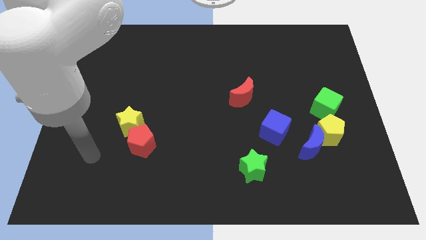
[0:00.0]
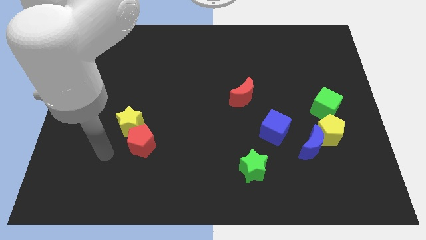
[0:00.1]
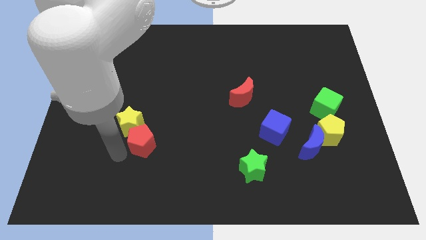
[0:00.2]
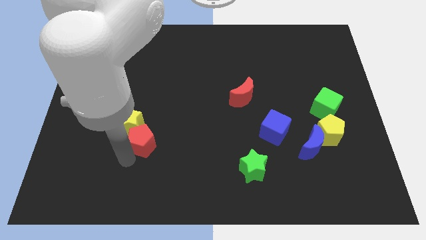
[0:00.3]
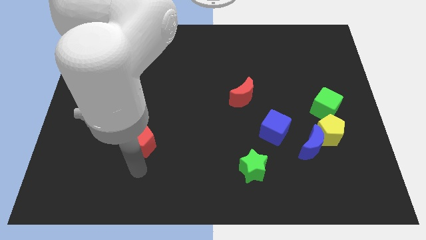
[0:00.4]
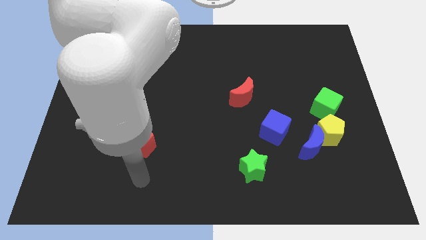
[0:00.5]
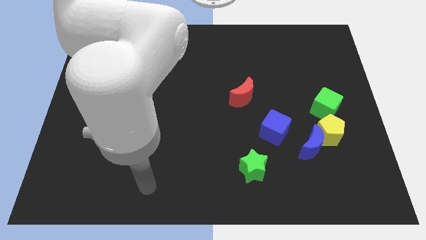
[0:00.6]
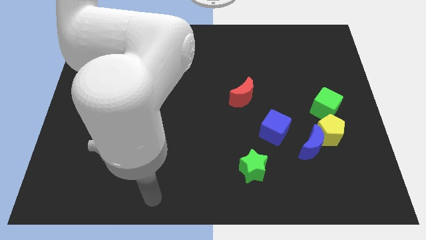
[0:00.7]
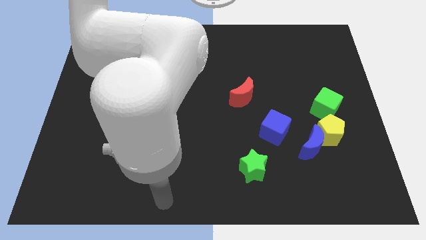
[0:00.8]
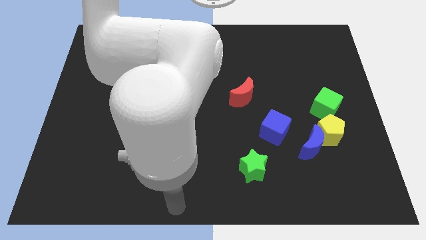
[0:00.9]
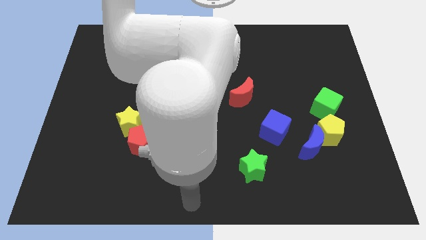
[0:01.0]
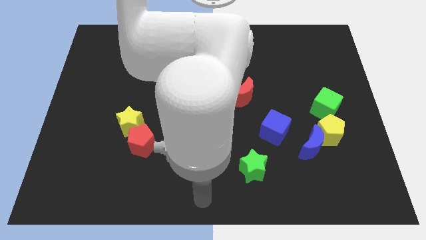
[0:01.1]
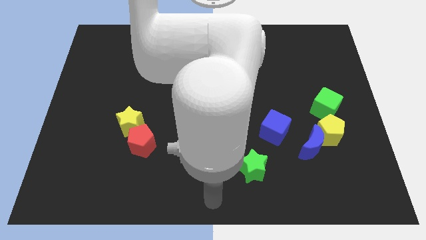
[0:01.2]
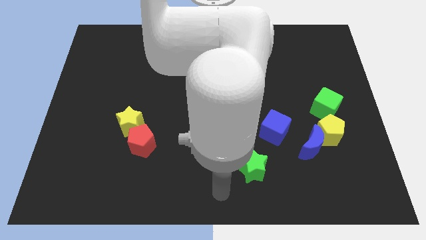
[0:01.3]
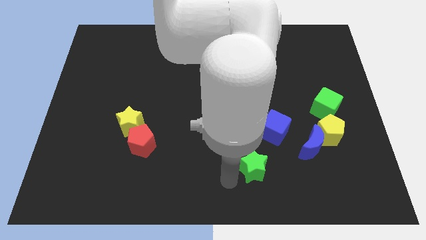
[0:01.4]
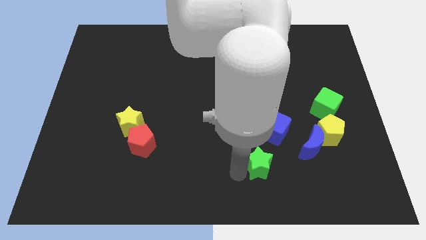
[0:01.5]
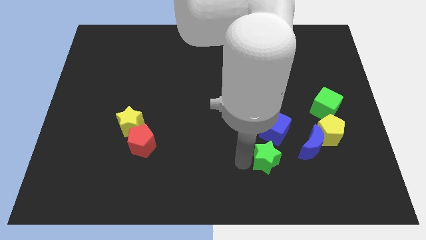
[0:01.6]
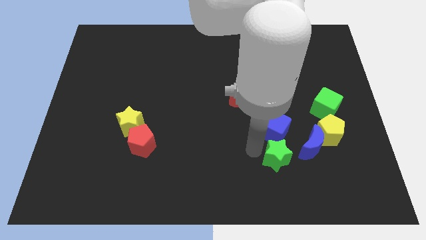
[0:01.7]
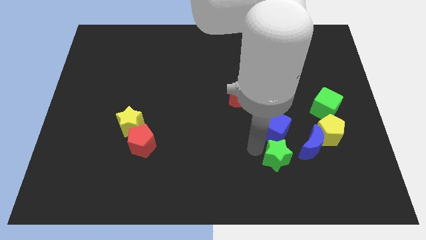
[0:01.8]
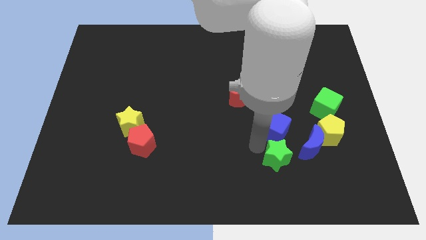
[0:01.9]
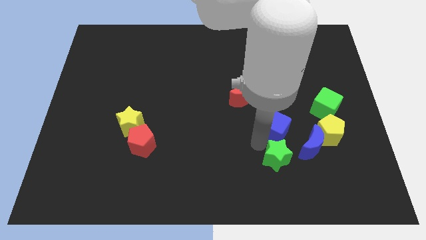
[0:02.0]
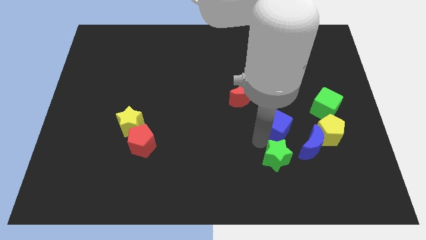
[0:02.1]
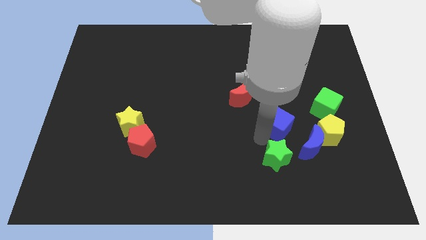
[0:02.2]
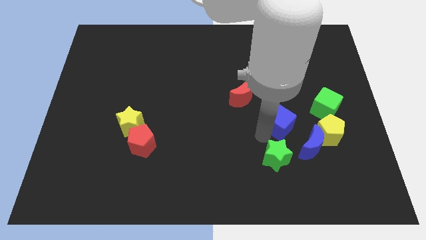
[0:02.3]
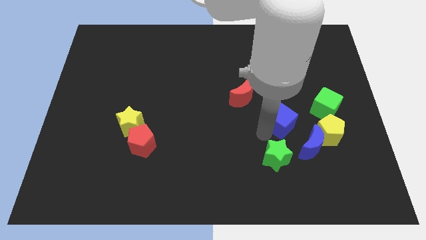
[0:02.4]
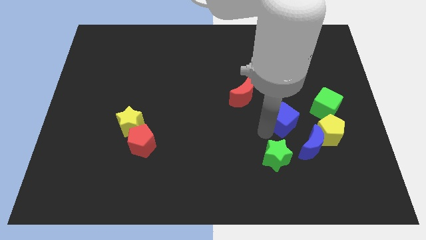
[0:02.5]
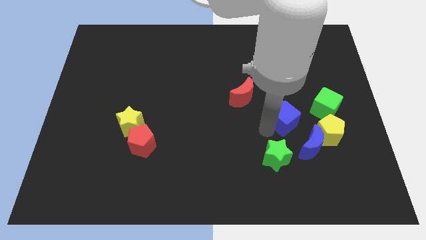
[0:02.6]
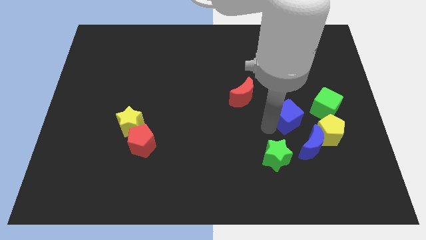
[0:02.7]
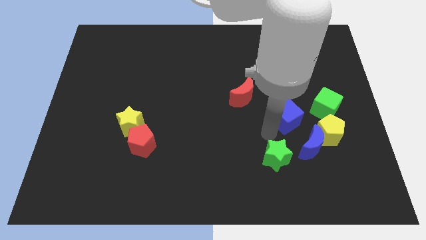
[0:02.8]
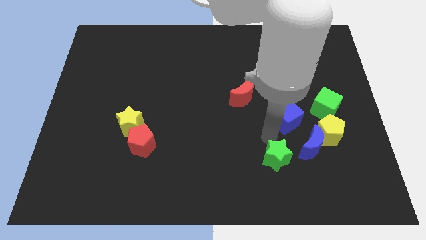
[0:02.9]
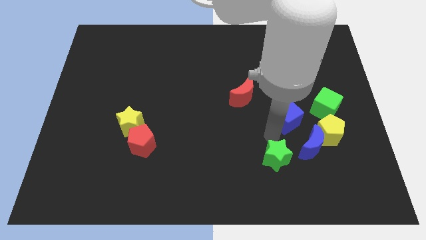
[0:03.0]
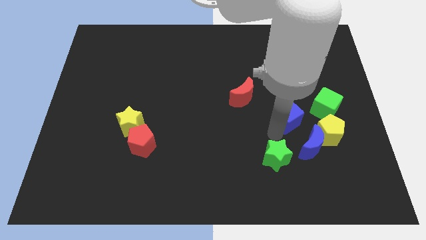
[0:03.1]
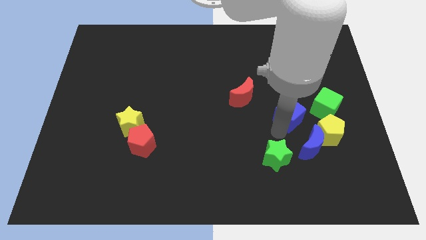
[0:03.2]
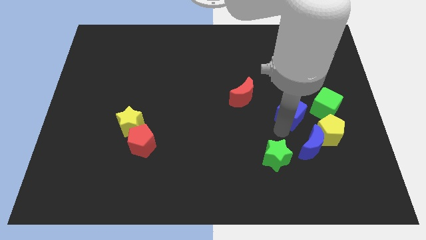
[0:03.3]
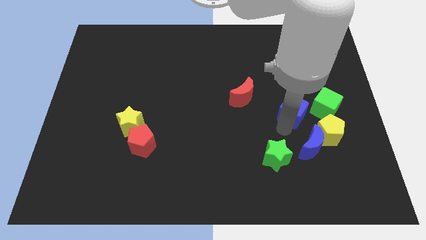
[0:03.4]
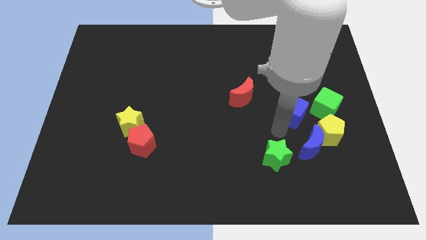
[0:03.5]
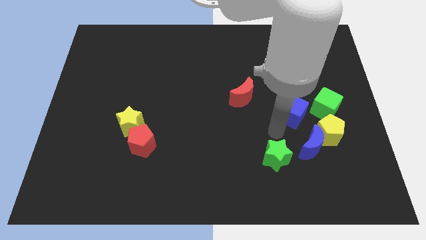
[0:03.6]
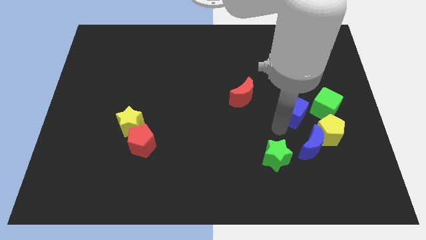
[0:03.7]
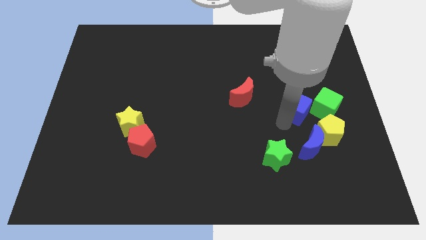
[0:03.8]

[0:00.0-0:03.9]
slide the blue cube up and then to the right a little bit

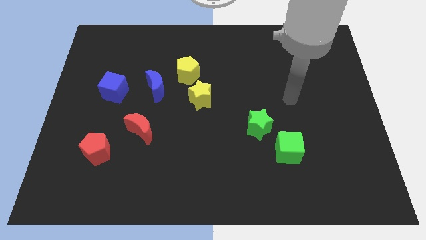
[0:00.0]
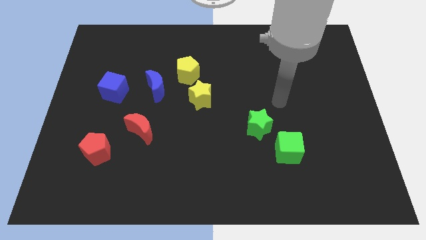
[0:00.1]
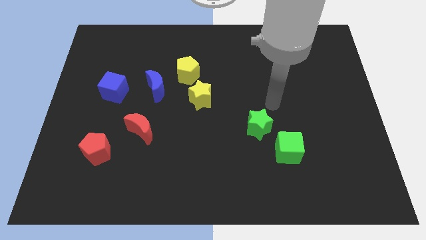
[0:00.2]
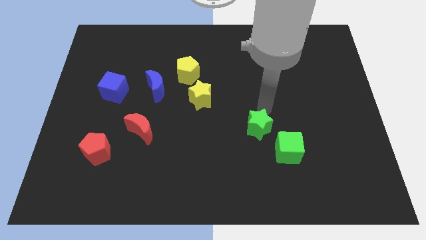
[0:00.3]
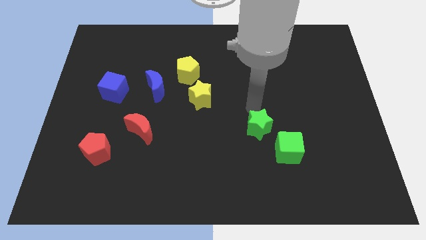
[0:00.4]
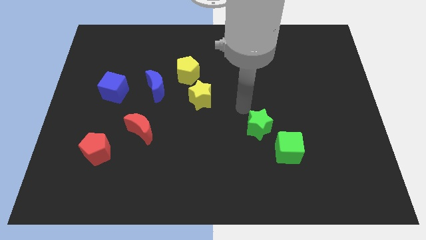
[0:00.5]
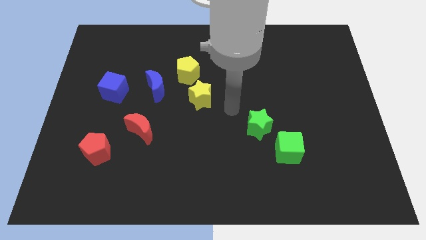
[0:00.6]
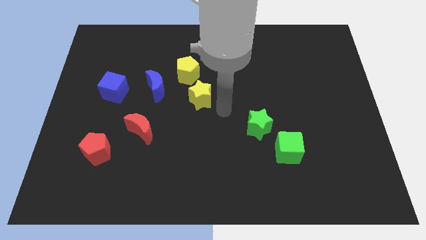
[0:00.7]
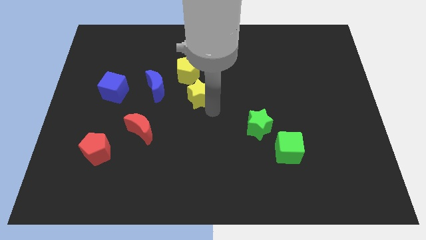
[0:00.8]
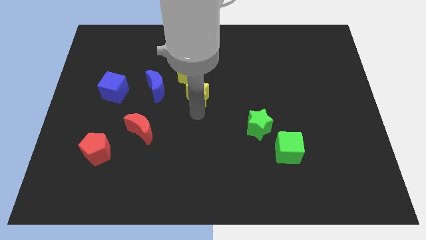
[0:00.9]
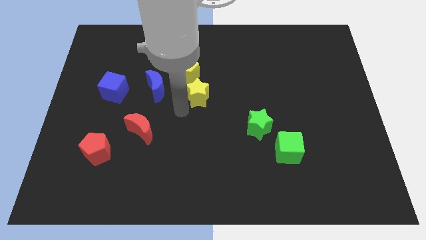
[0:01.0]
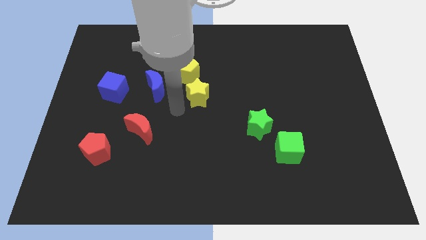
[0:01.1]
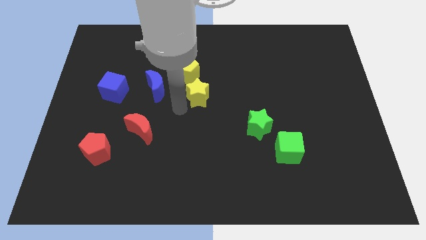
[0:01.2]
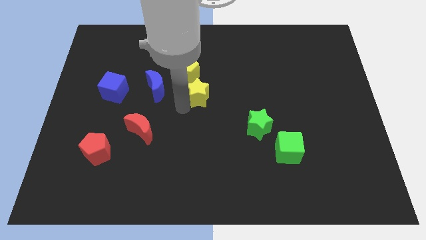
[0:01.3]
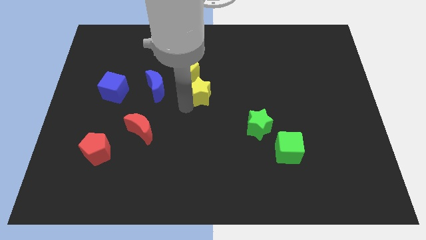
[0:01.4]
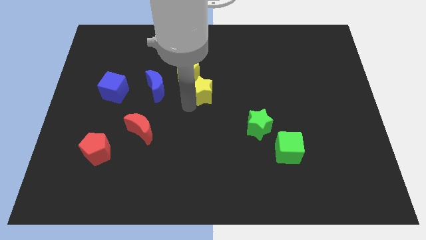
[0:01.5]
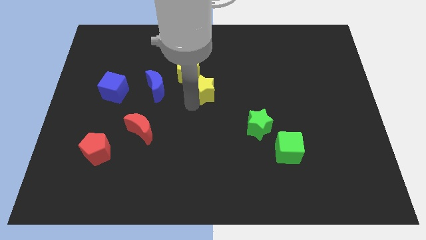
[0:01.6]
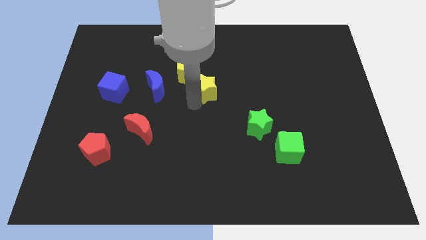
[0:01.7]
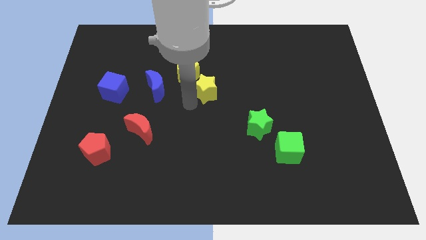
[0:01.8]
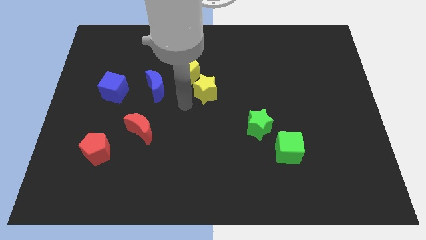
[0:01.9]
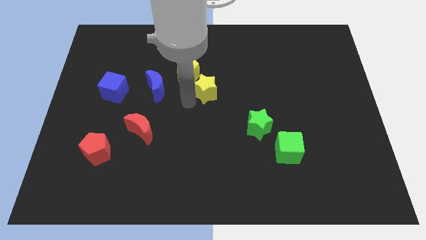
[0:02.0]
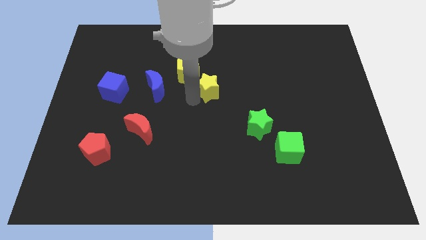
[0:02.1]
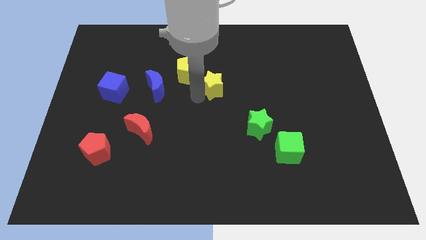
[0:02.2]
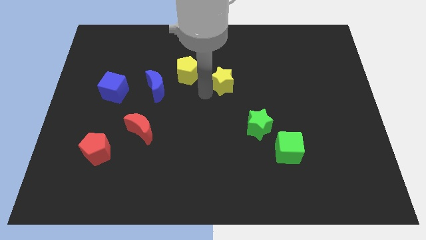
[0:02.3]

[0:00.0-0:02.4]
slide the yellow star a bit diagonally upwards and to the right

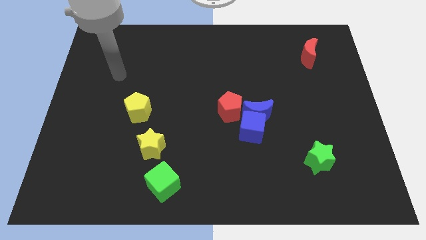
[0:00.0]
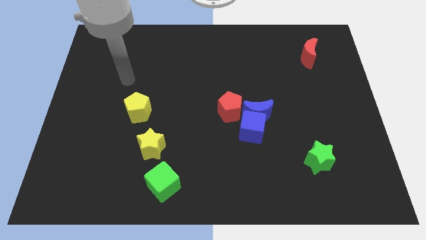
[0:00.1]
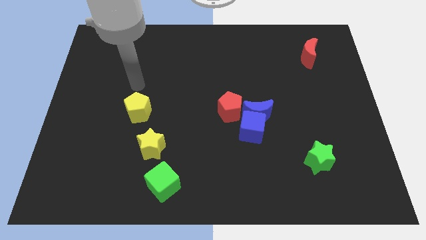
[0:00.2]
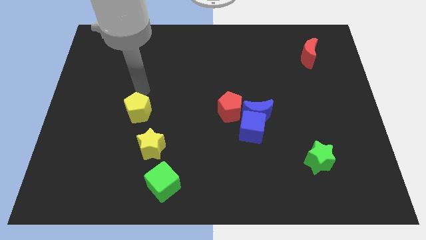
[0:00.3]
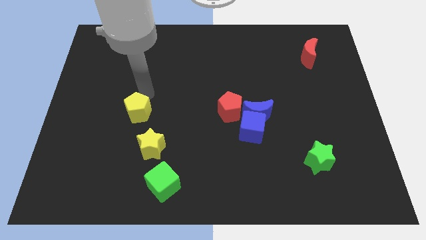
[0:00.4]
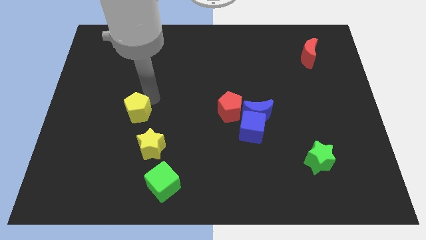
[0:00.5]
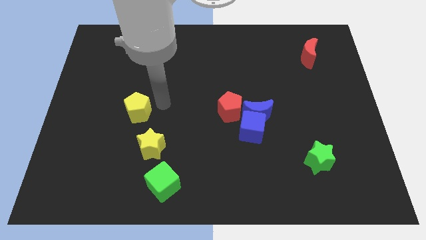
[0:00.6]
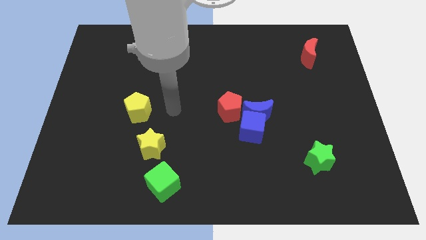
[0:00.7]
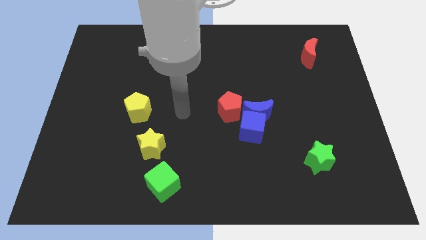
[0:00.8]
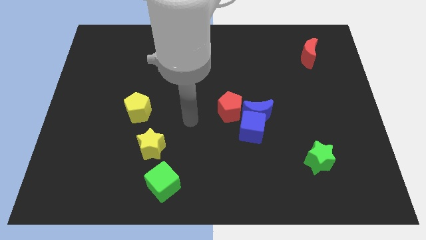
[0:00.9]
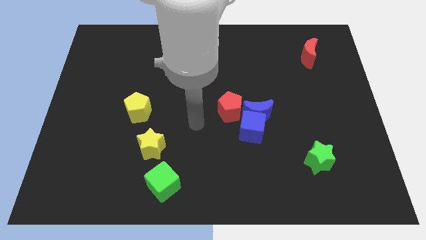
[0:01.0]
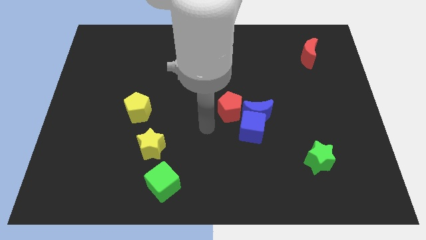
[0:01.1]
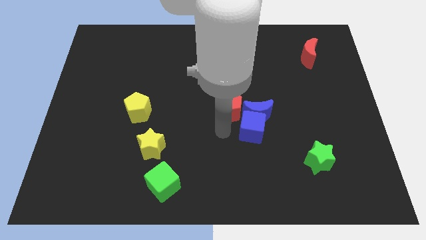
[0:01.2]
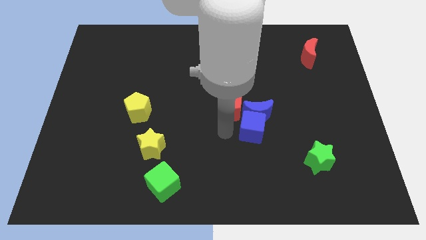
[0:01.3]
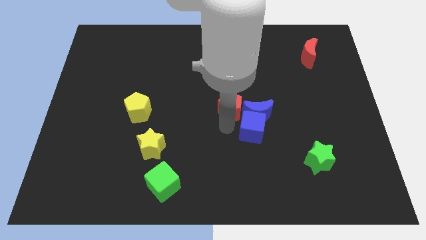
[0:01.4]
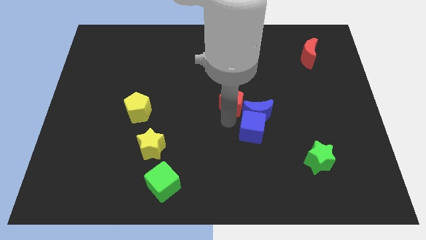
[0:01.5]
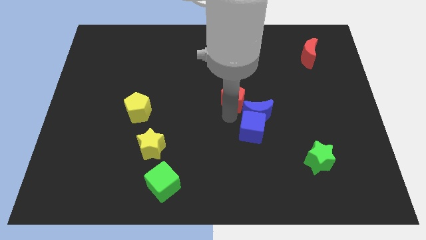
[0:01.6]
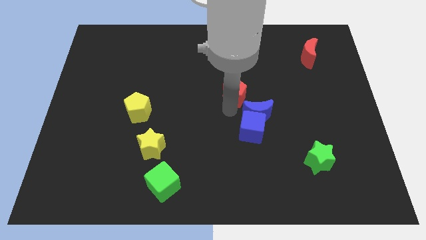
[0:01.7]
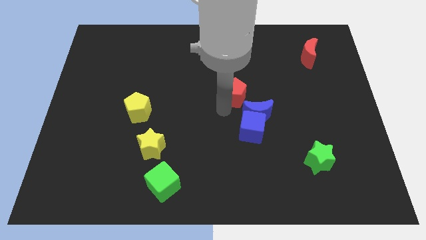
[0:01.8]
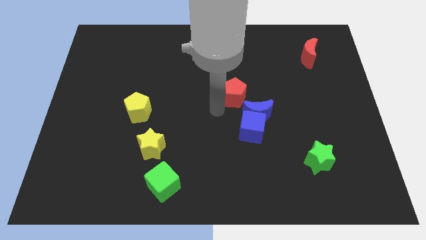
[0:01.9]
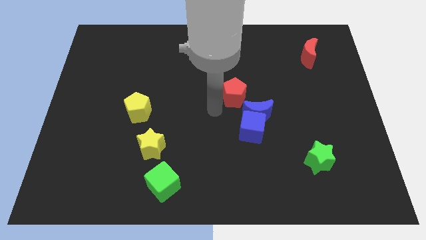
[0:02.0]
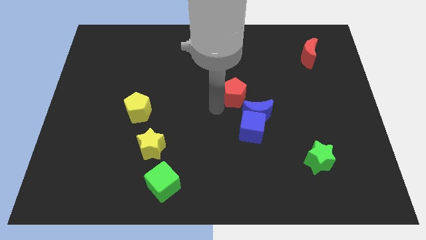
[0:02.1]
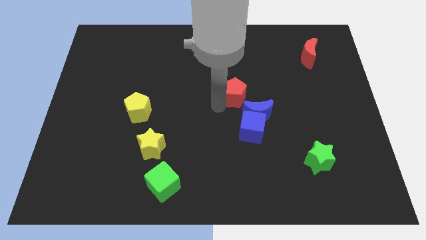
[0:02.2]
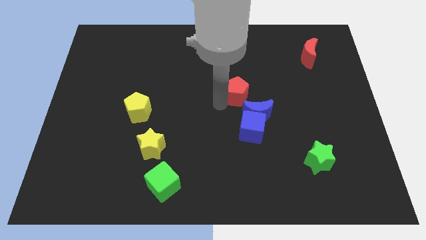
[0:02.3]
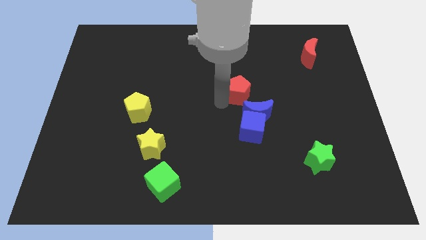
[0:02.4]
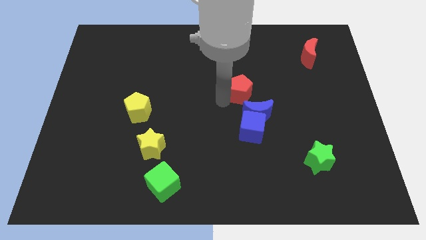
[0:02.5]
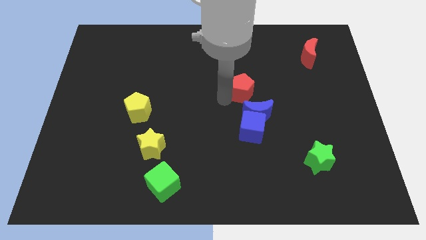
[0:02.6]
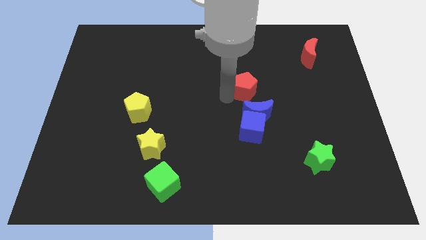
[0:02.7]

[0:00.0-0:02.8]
move the red pentagon a little bit up and to the right diagonally
